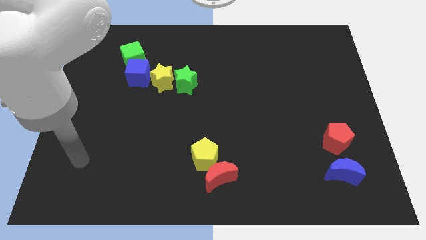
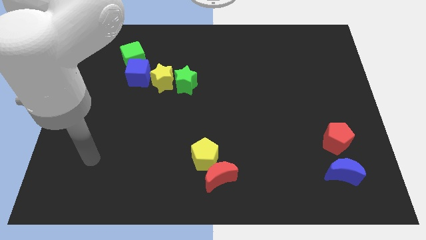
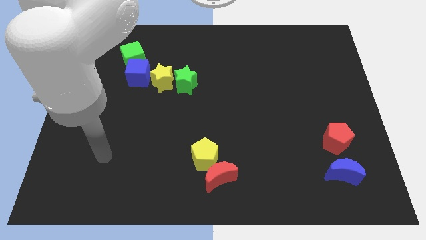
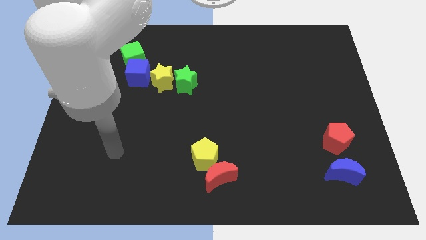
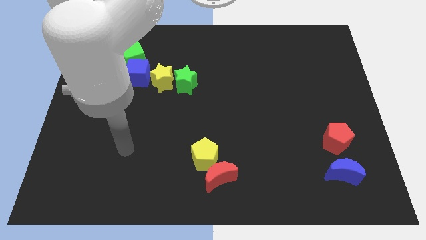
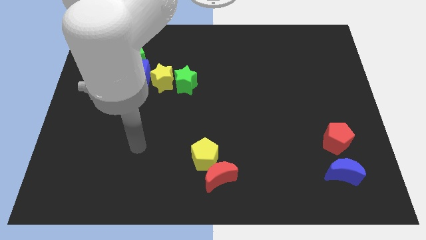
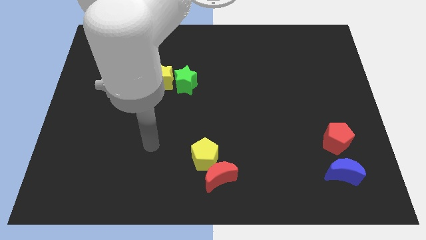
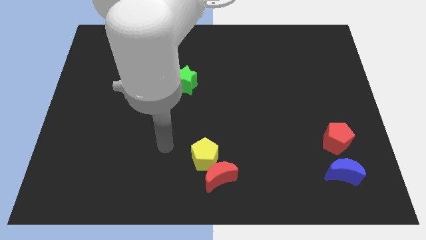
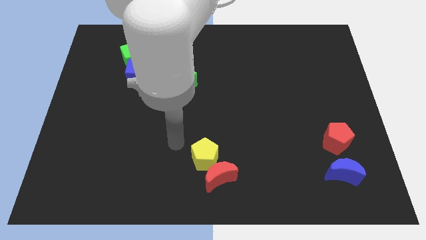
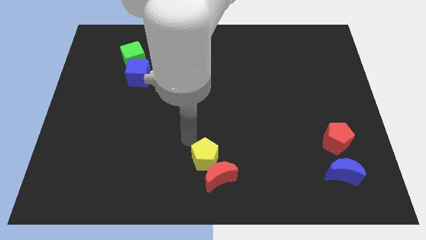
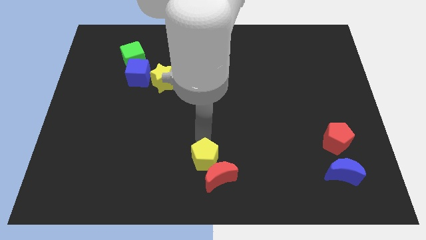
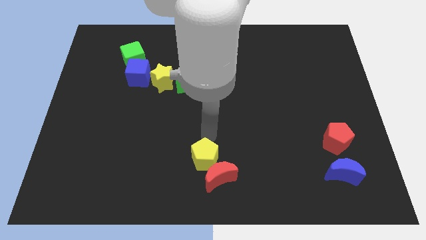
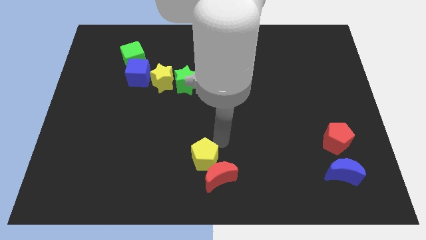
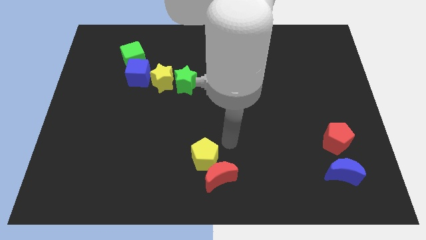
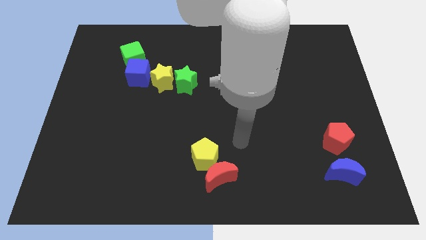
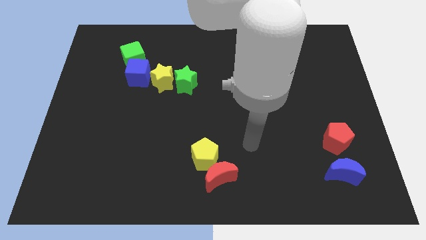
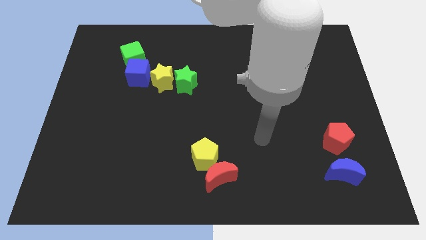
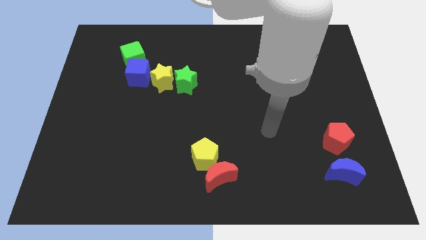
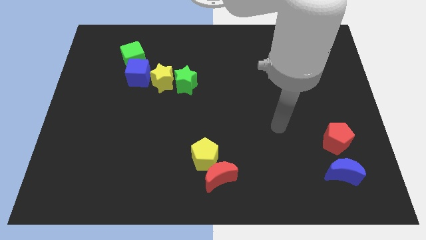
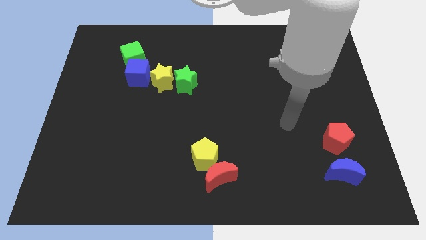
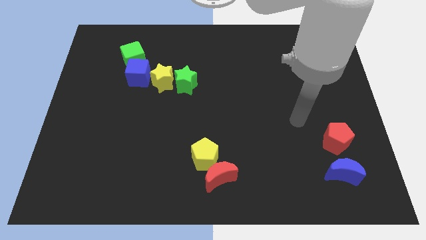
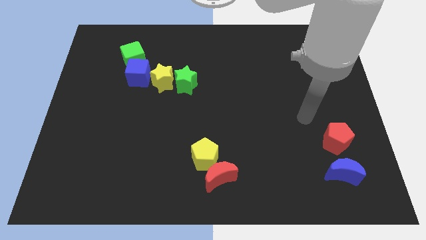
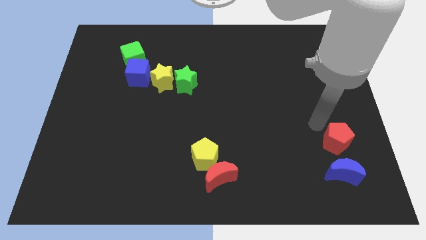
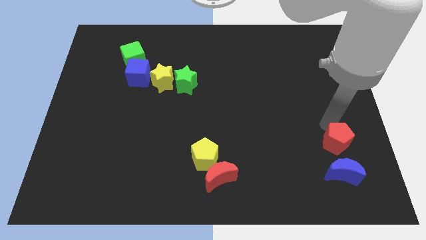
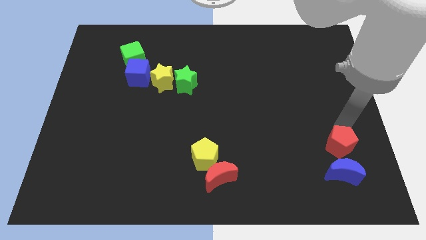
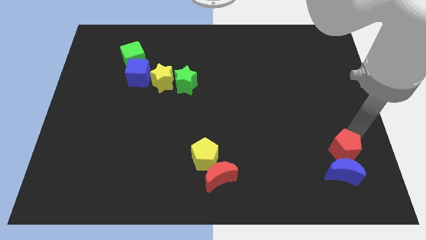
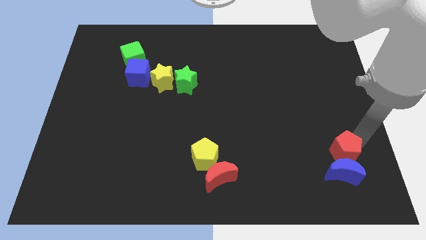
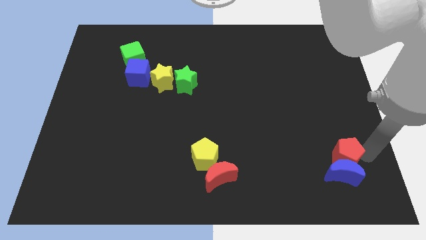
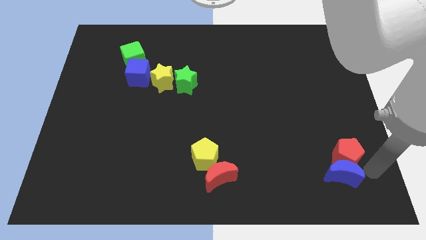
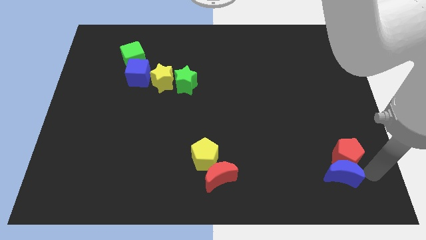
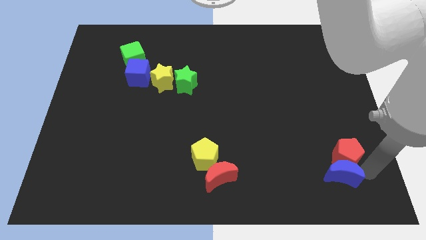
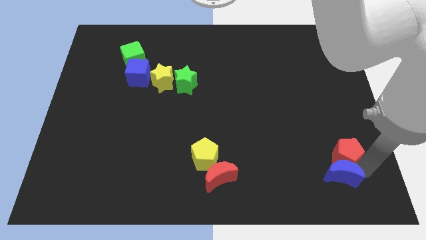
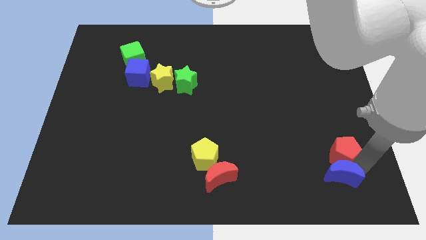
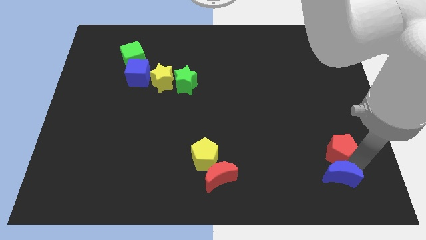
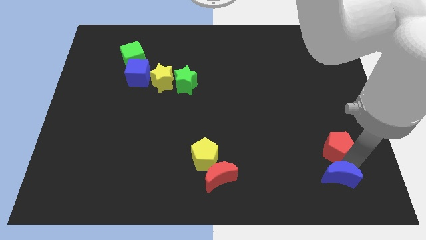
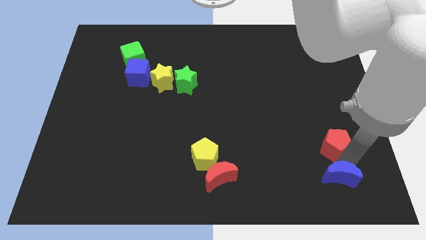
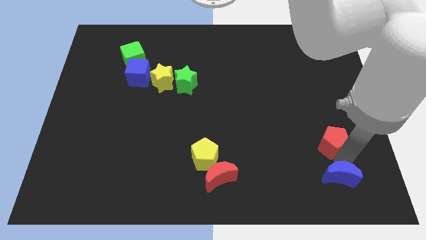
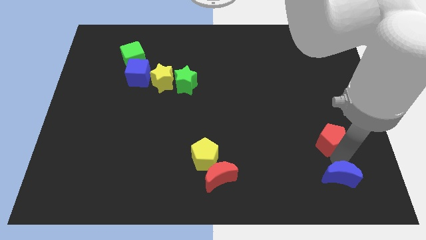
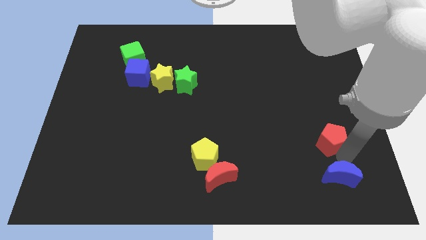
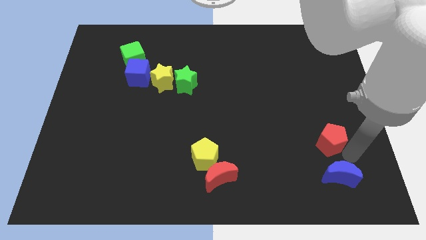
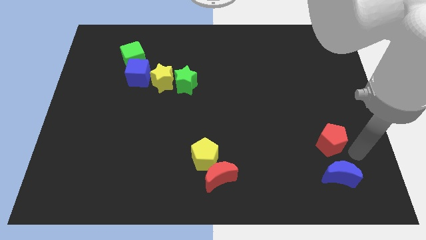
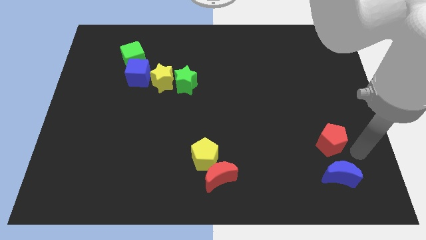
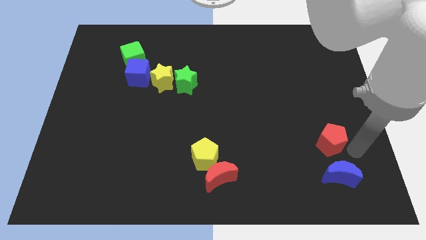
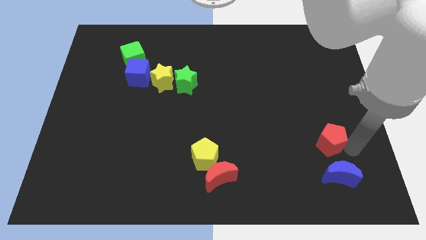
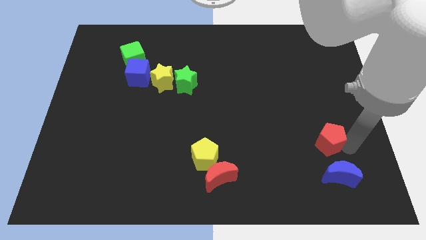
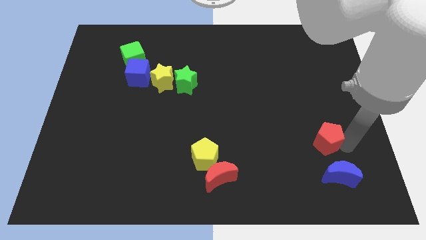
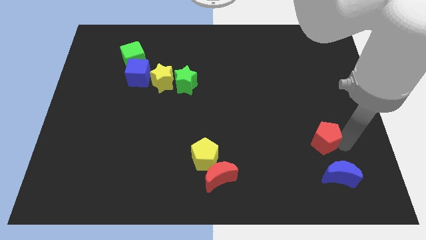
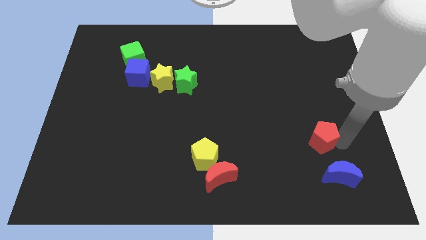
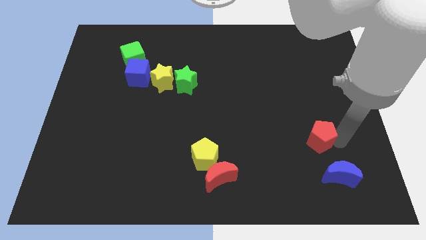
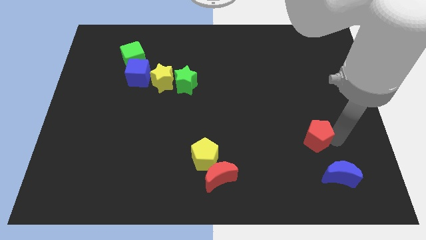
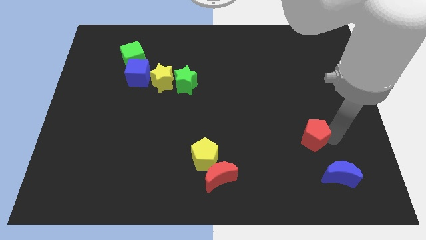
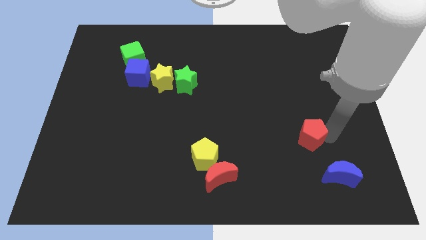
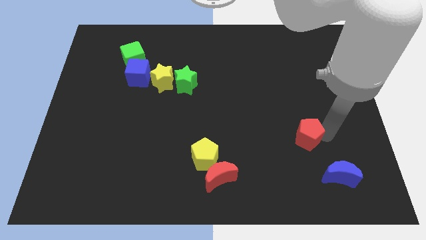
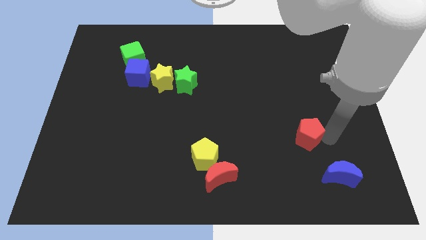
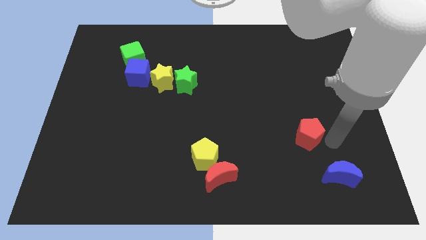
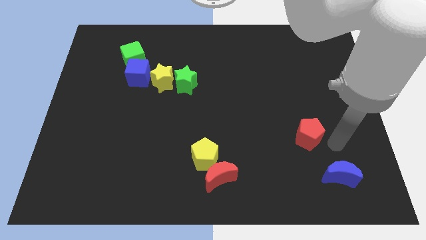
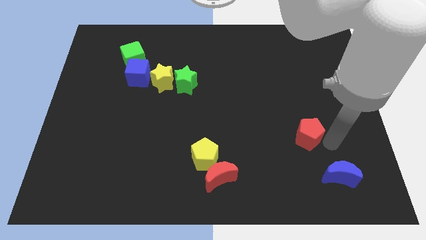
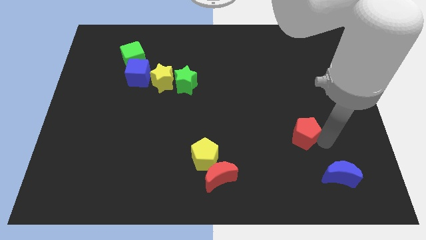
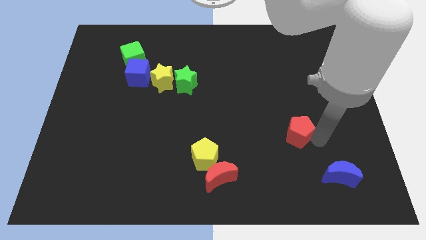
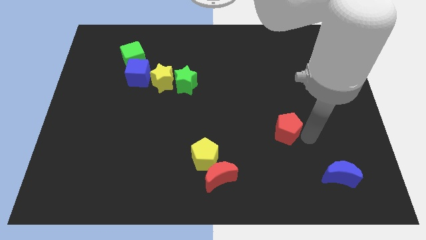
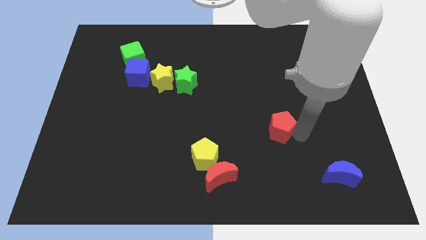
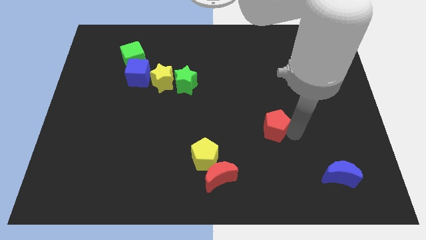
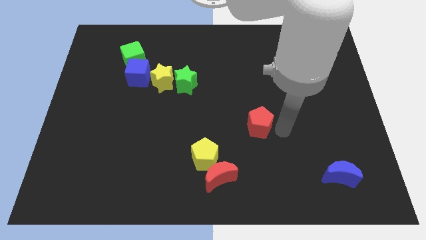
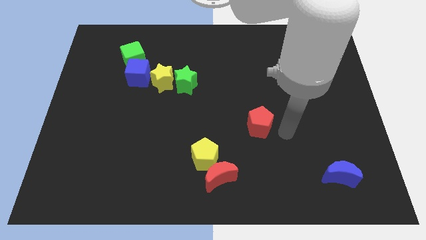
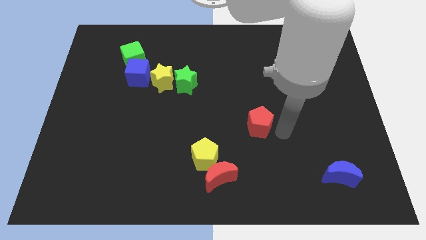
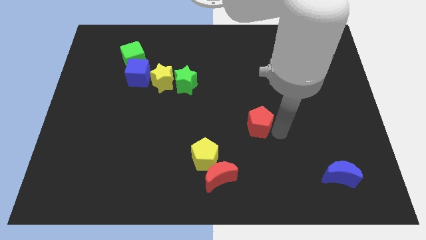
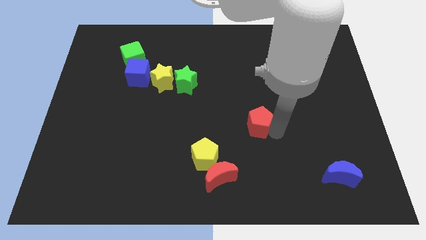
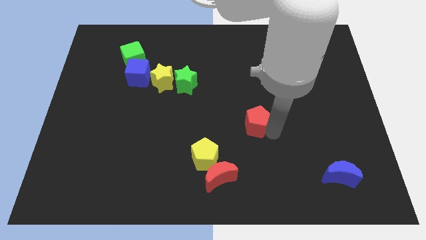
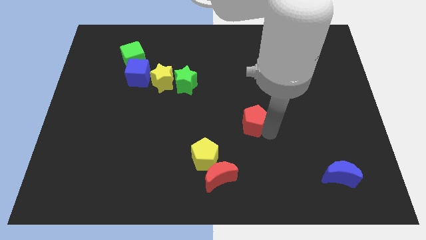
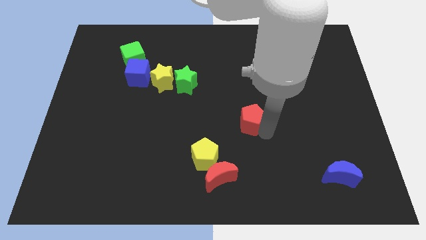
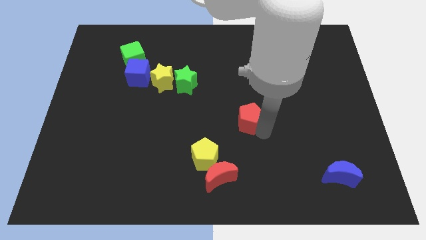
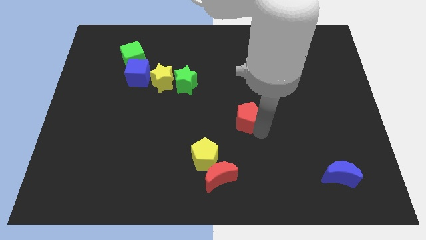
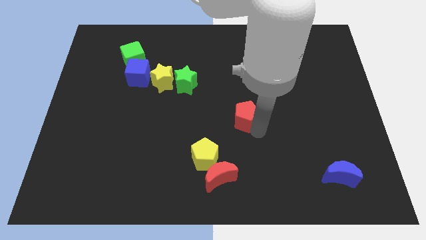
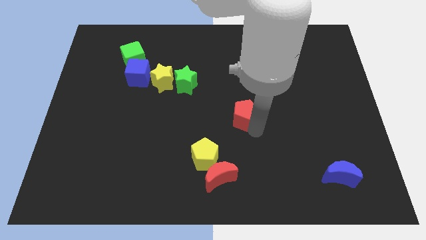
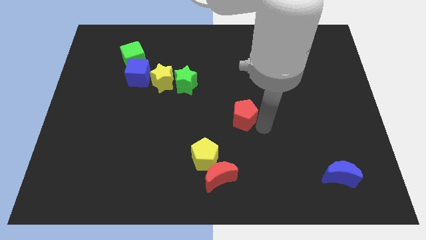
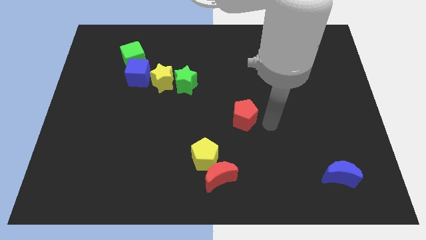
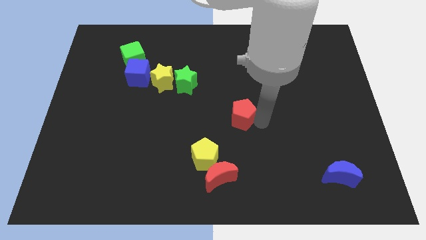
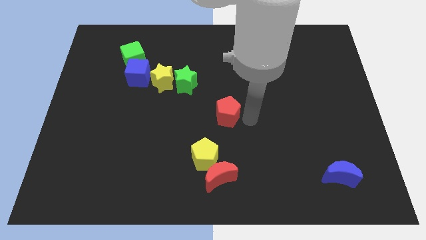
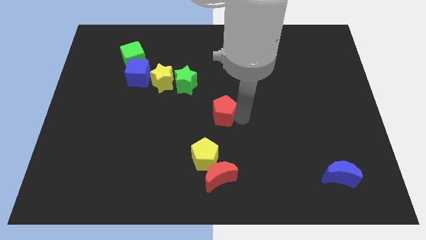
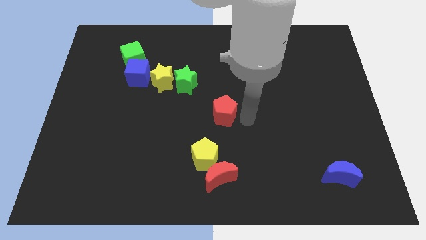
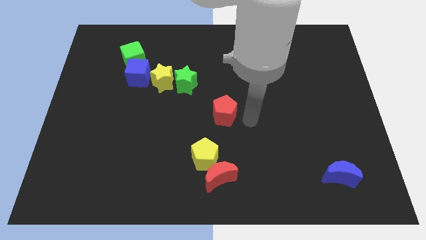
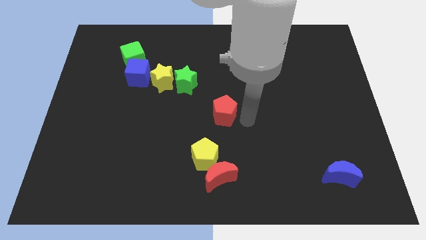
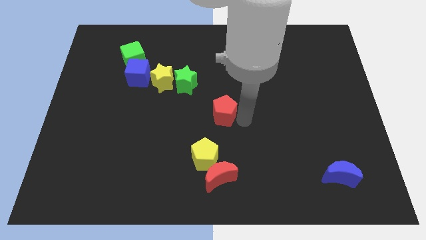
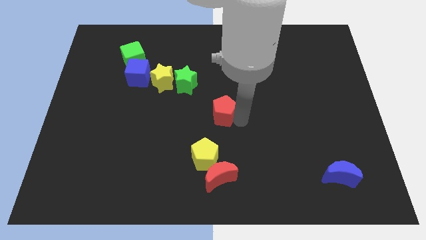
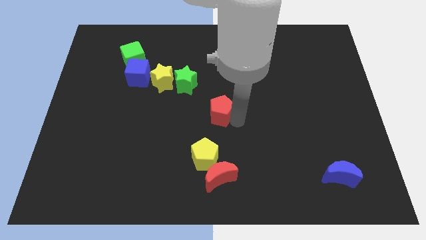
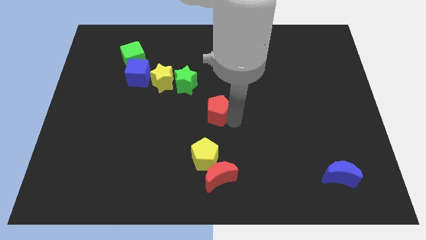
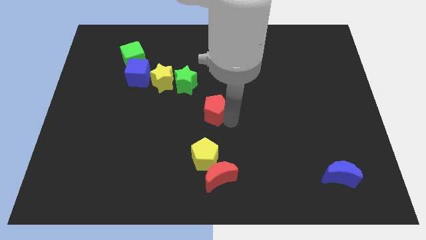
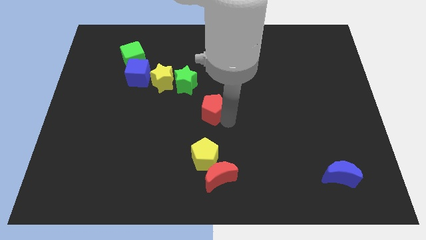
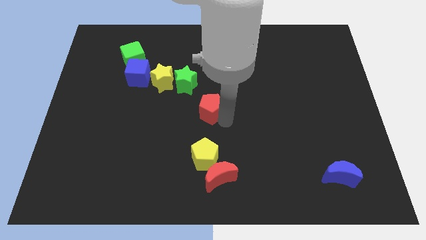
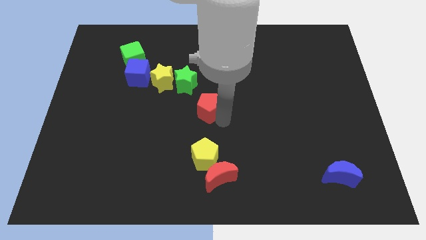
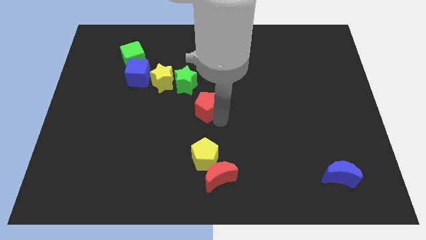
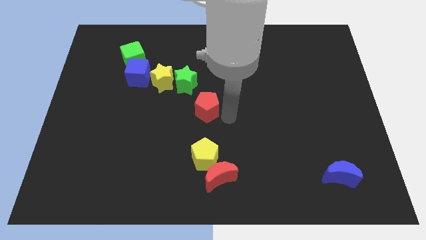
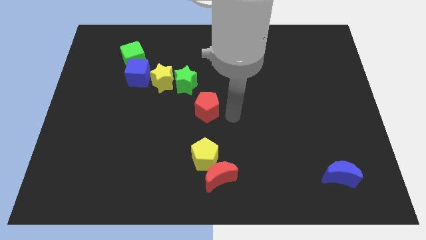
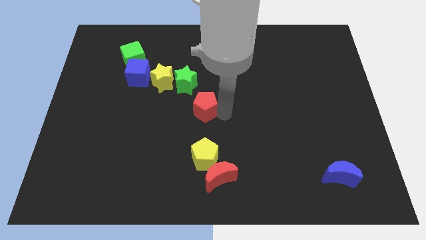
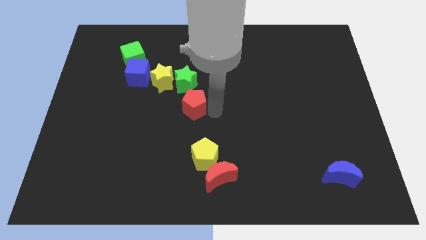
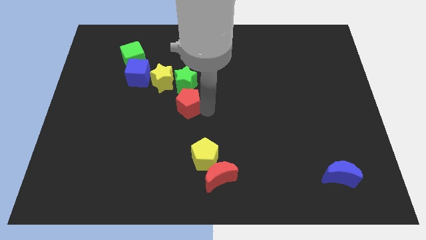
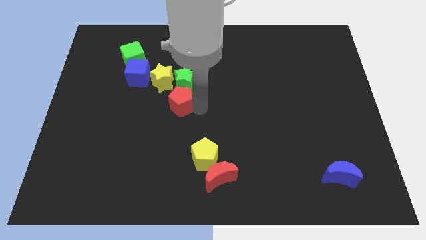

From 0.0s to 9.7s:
push the red pentagon to the bottom left side of the green star
